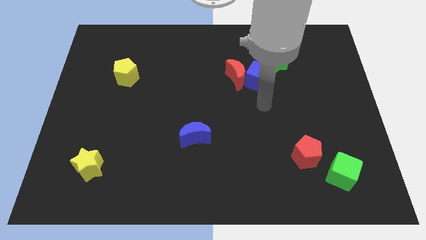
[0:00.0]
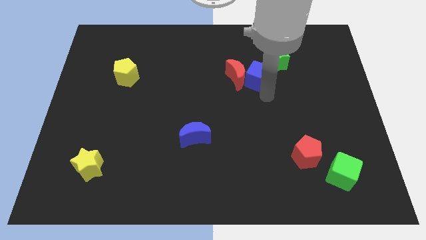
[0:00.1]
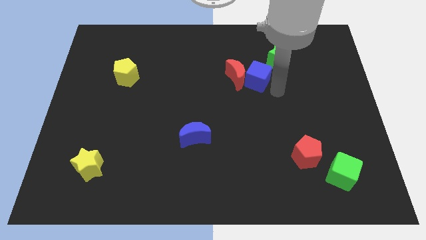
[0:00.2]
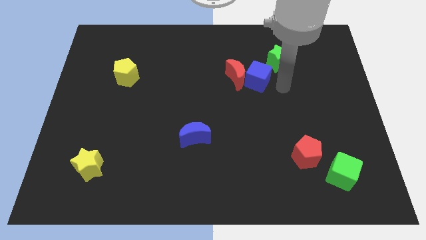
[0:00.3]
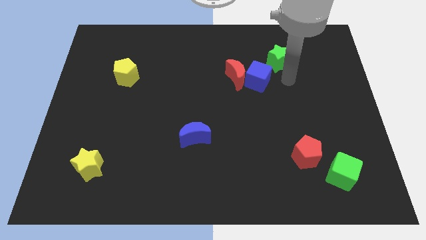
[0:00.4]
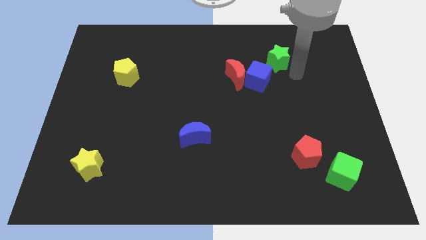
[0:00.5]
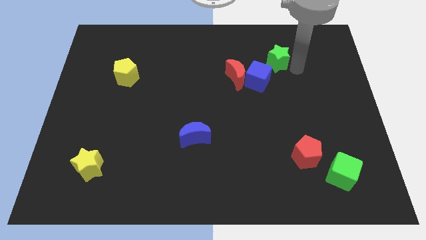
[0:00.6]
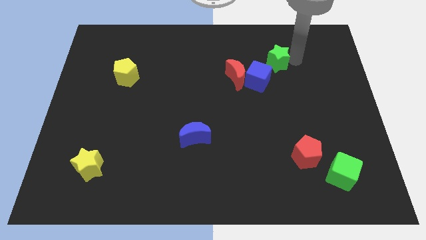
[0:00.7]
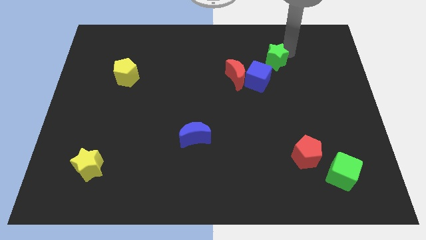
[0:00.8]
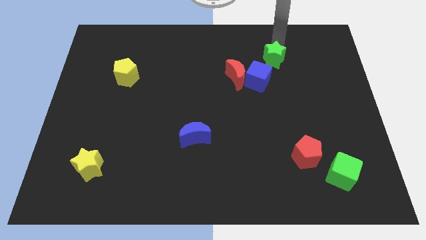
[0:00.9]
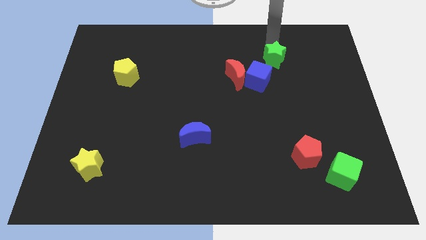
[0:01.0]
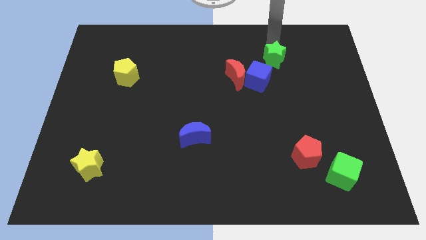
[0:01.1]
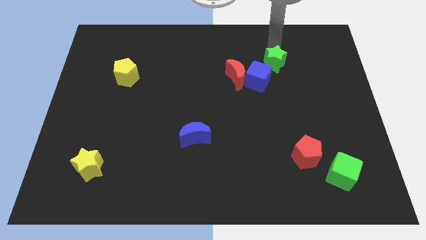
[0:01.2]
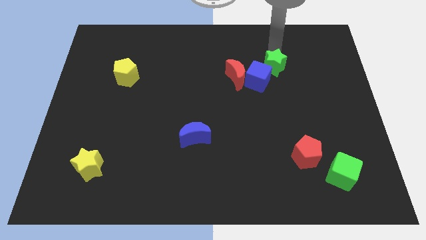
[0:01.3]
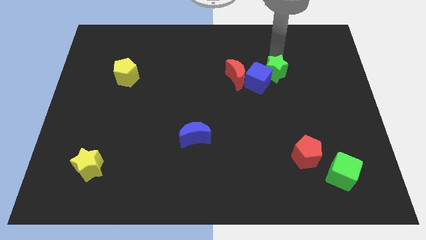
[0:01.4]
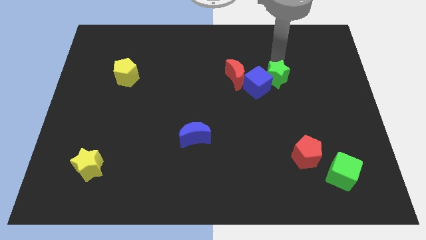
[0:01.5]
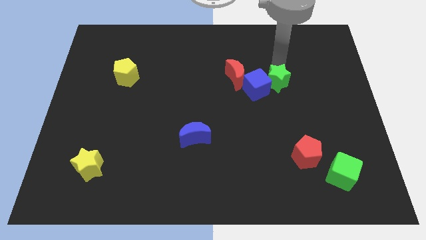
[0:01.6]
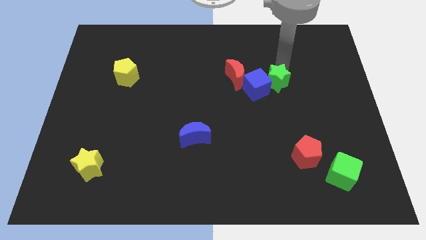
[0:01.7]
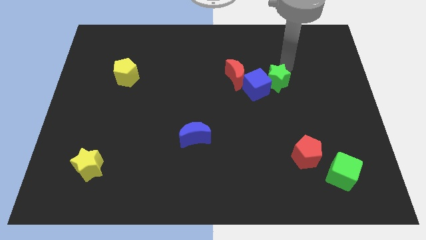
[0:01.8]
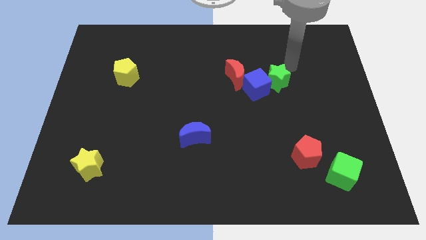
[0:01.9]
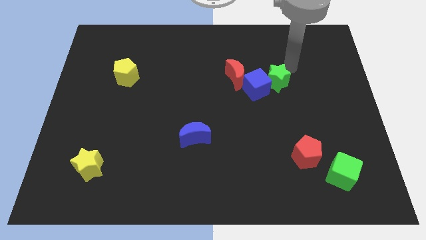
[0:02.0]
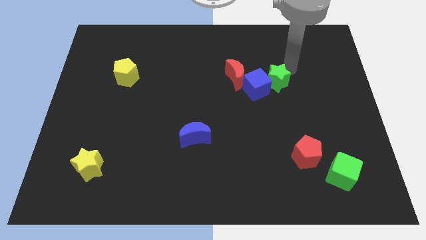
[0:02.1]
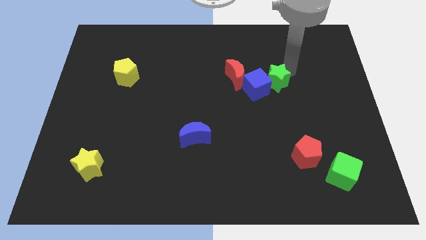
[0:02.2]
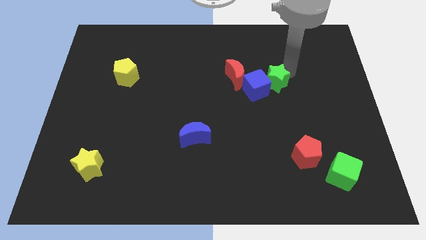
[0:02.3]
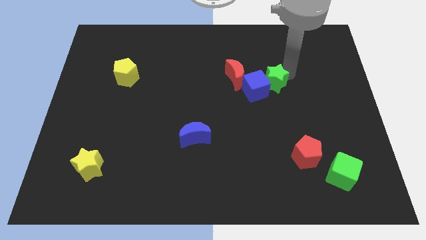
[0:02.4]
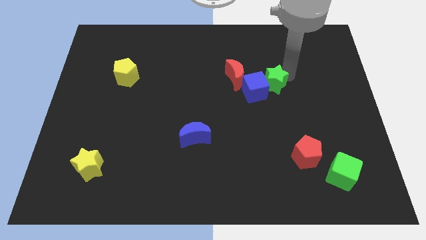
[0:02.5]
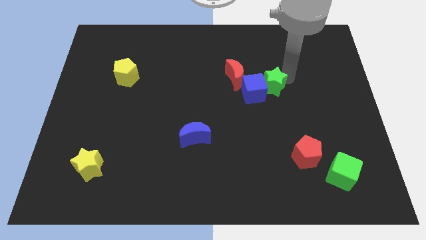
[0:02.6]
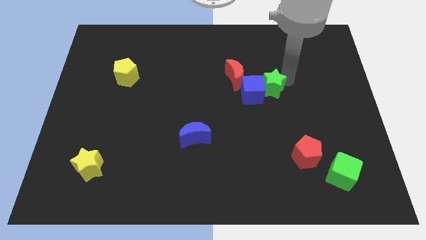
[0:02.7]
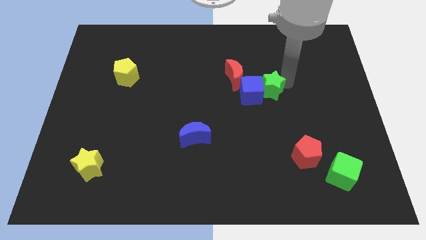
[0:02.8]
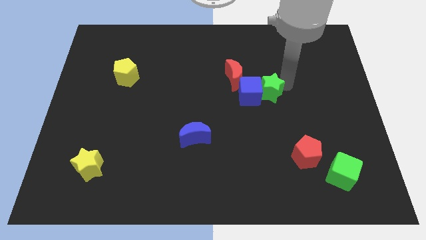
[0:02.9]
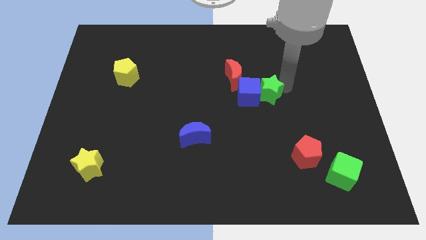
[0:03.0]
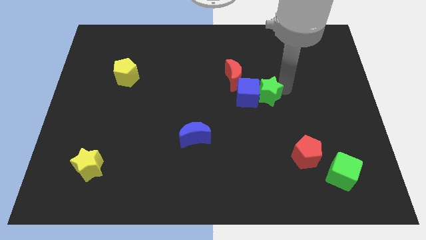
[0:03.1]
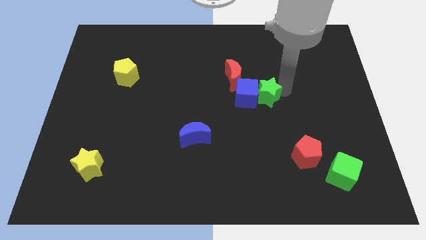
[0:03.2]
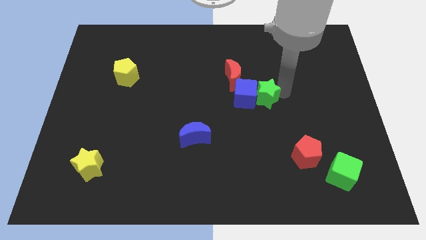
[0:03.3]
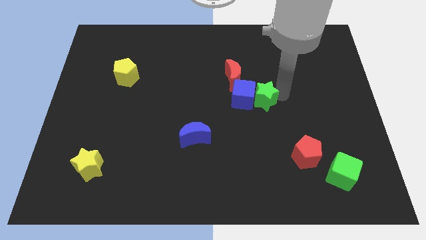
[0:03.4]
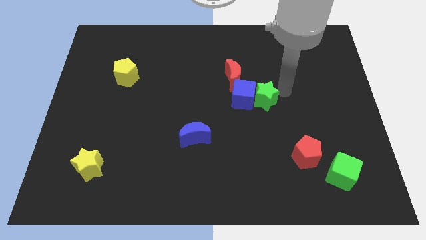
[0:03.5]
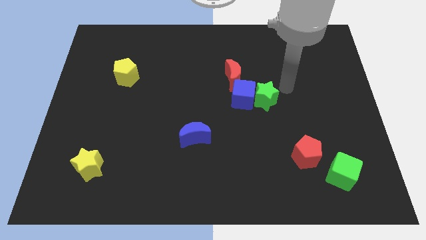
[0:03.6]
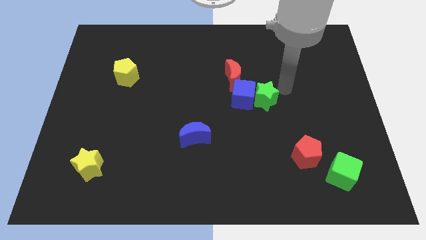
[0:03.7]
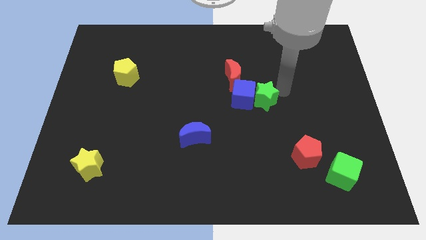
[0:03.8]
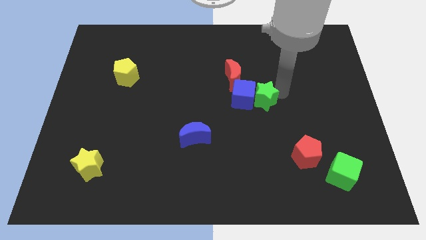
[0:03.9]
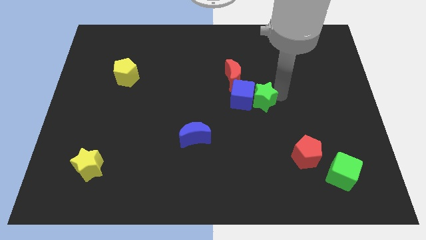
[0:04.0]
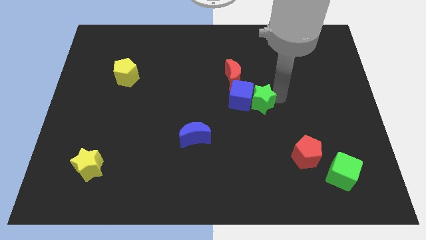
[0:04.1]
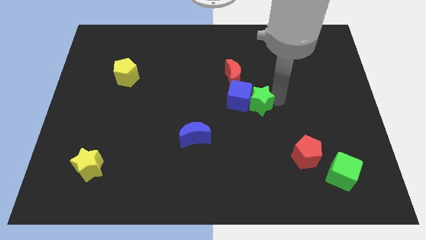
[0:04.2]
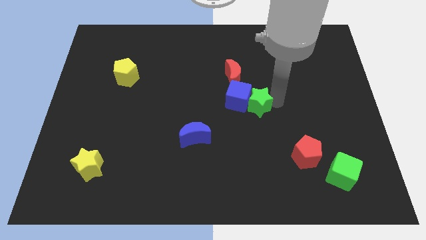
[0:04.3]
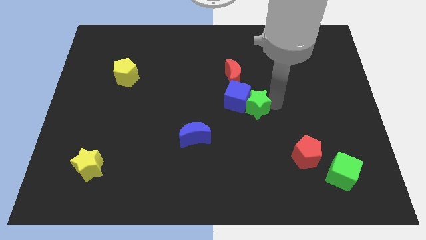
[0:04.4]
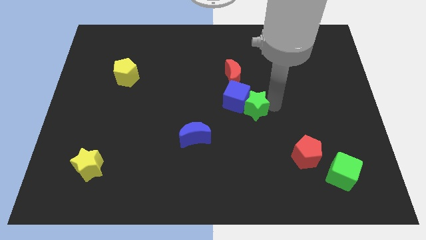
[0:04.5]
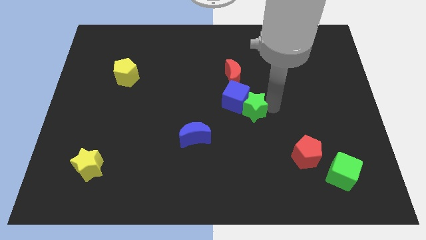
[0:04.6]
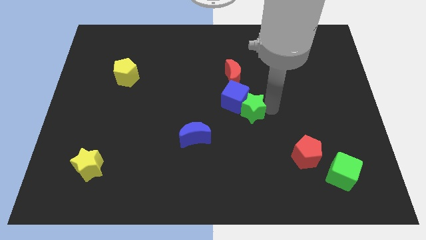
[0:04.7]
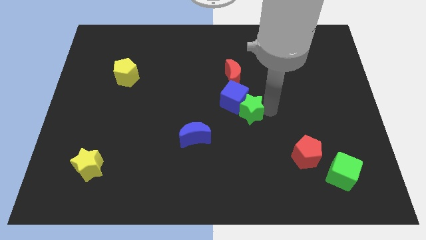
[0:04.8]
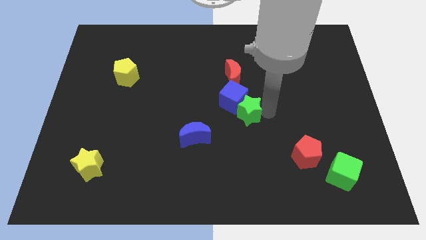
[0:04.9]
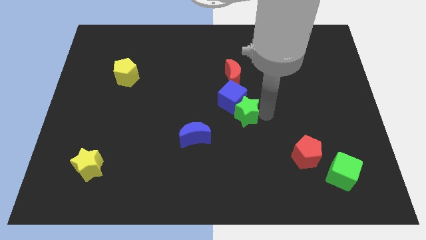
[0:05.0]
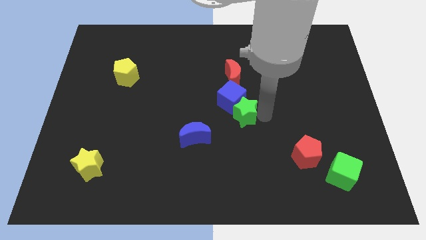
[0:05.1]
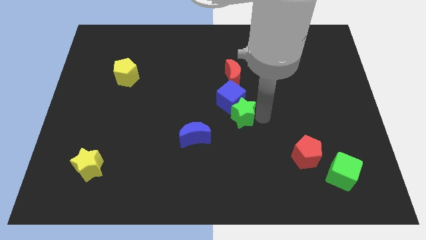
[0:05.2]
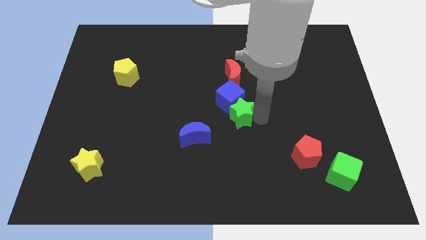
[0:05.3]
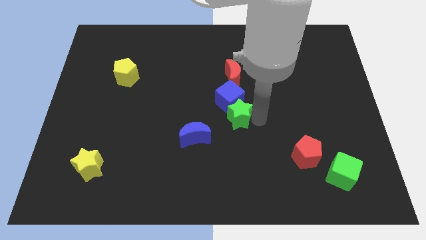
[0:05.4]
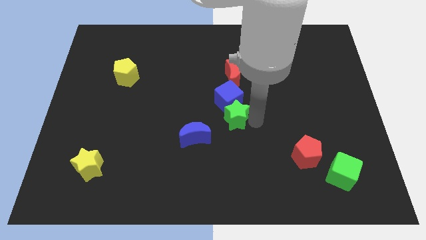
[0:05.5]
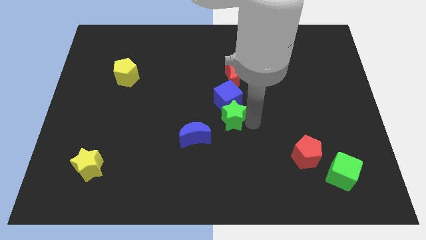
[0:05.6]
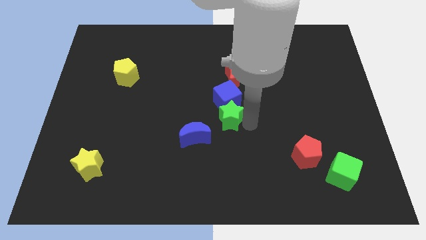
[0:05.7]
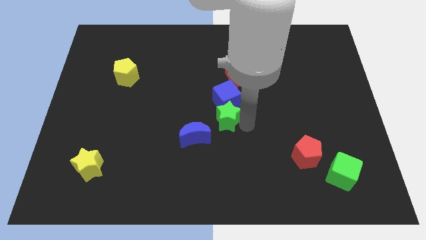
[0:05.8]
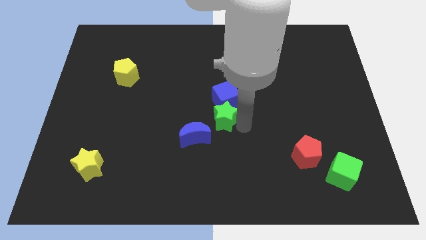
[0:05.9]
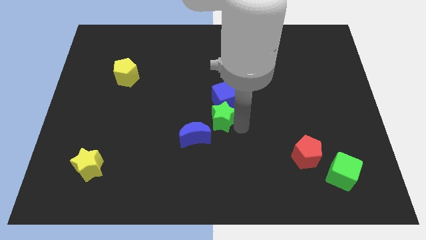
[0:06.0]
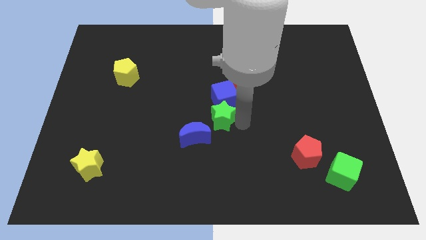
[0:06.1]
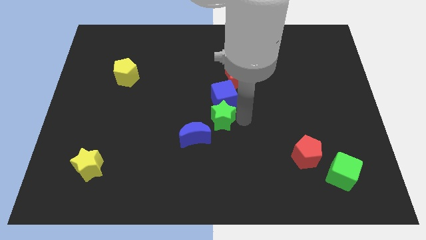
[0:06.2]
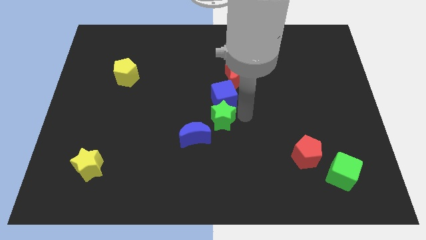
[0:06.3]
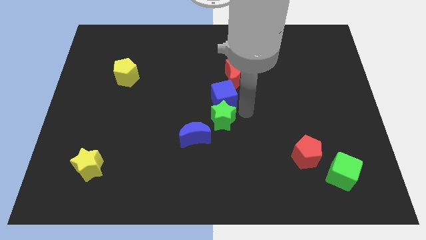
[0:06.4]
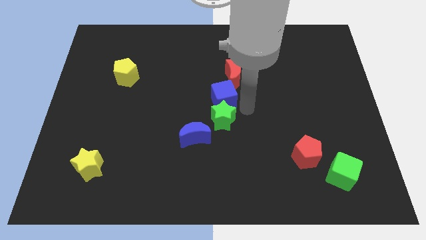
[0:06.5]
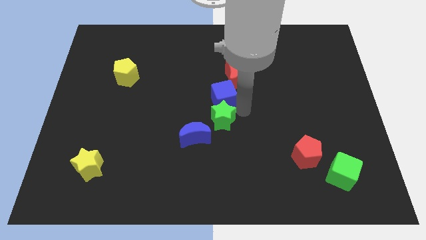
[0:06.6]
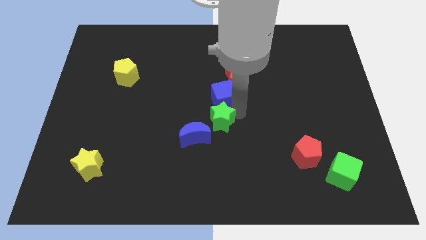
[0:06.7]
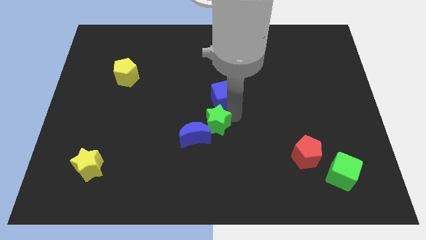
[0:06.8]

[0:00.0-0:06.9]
put the green star to the blue moon

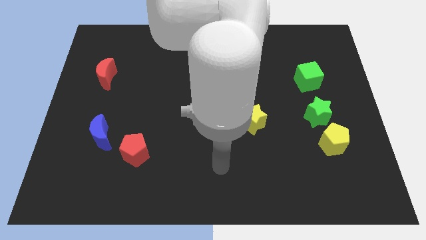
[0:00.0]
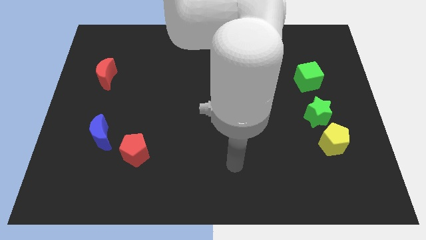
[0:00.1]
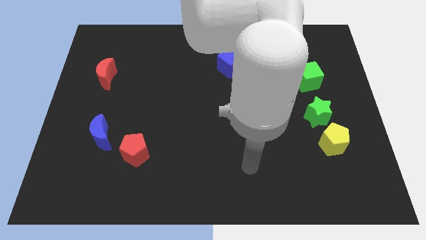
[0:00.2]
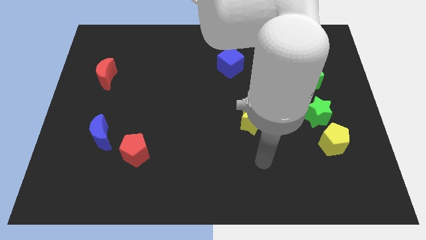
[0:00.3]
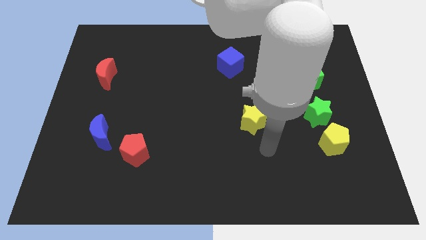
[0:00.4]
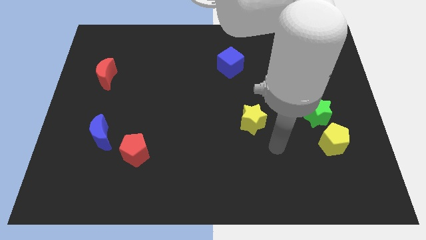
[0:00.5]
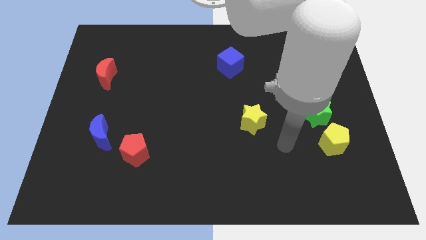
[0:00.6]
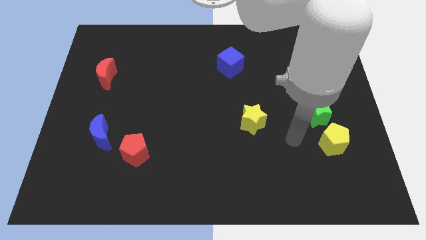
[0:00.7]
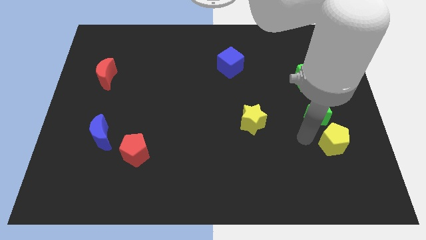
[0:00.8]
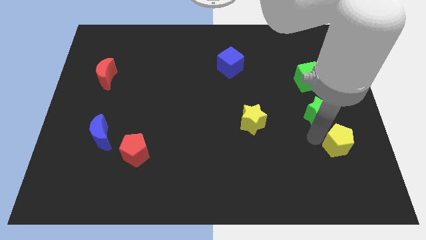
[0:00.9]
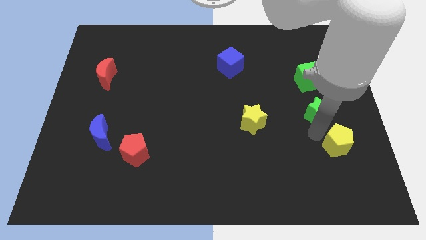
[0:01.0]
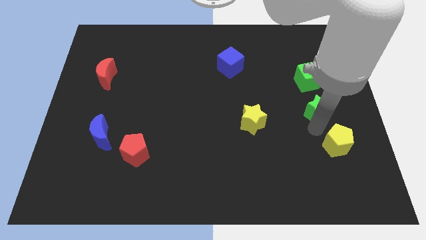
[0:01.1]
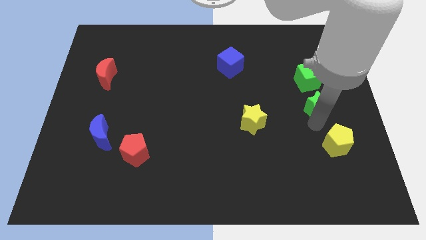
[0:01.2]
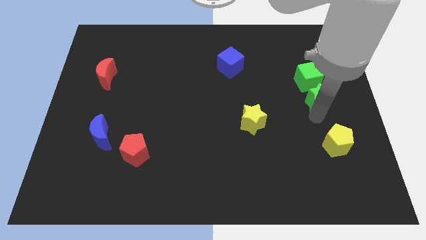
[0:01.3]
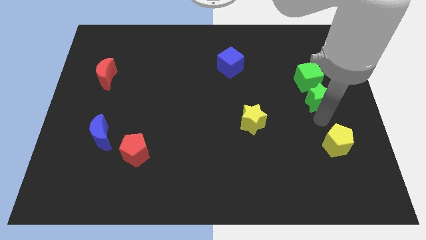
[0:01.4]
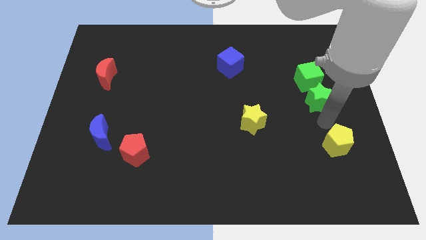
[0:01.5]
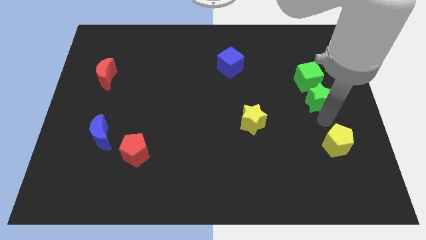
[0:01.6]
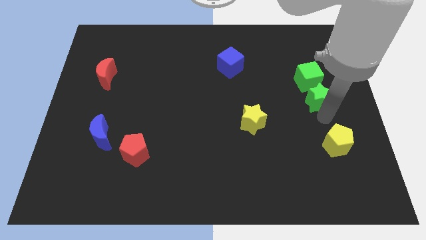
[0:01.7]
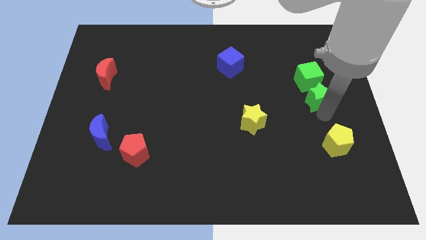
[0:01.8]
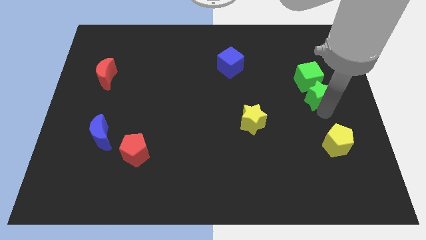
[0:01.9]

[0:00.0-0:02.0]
put the green star close to the green cube
